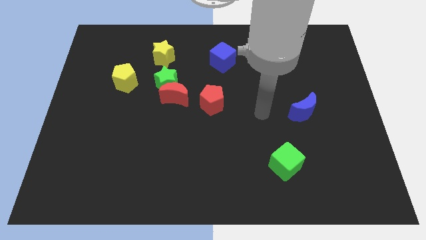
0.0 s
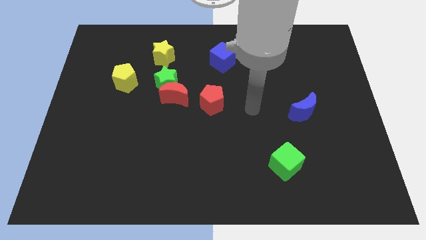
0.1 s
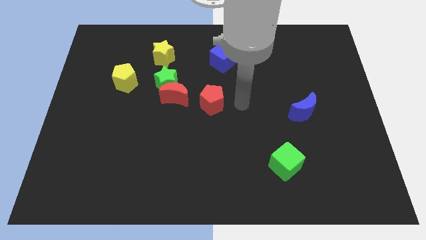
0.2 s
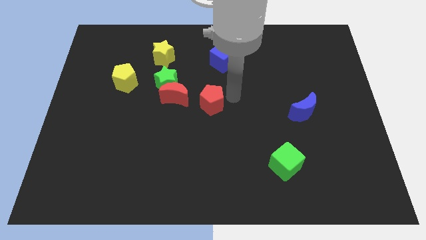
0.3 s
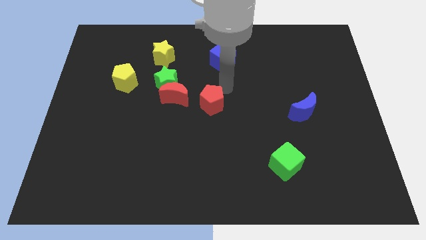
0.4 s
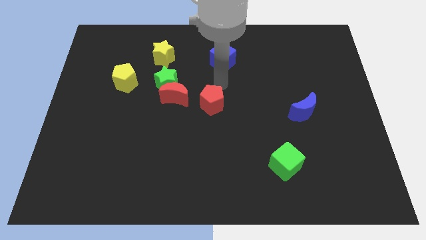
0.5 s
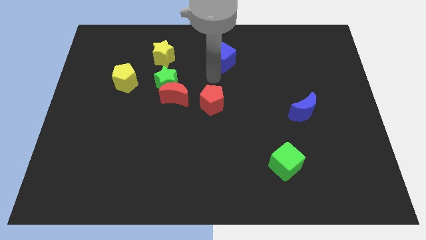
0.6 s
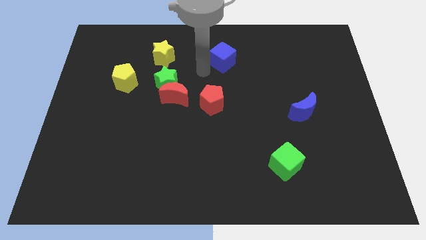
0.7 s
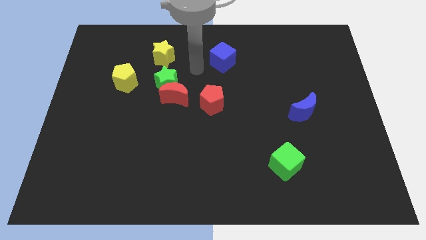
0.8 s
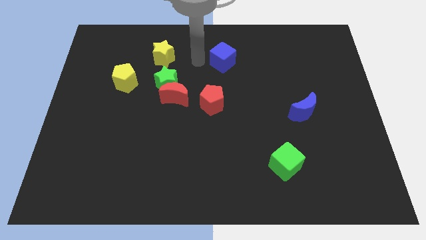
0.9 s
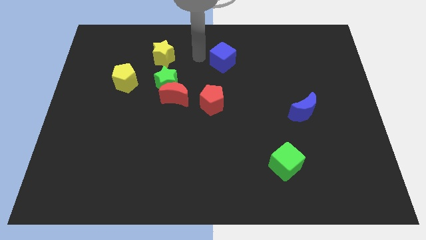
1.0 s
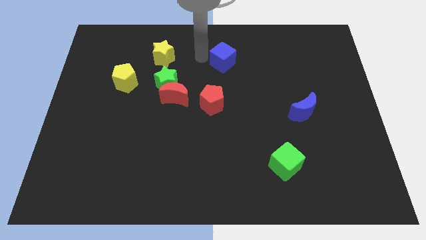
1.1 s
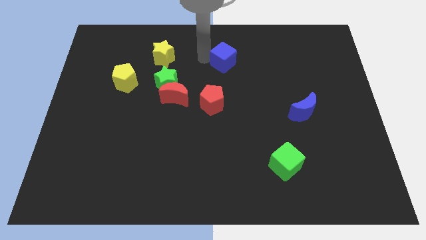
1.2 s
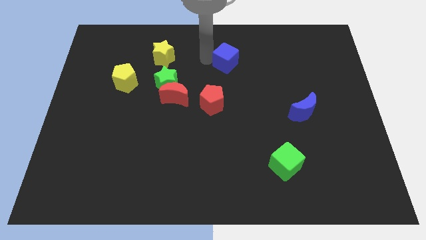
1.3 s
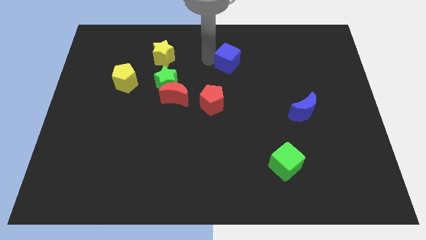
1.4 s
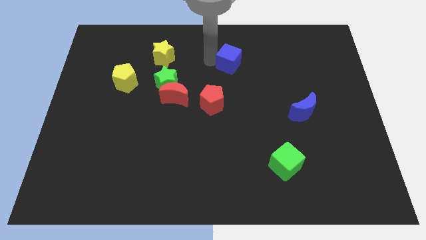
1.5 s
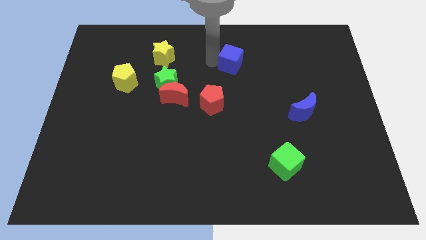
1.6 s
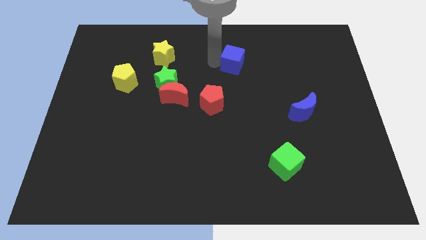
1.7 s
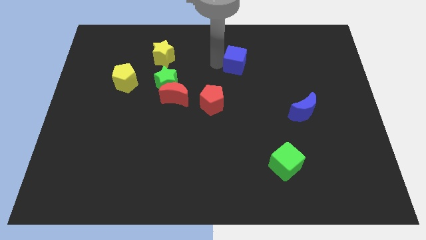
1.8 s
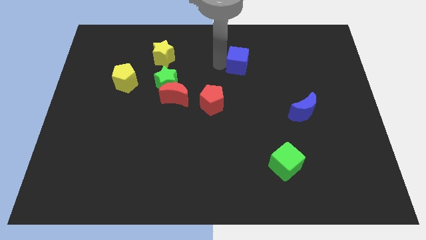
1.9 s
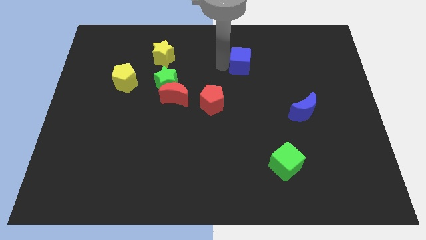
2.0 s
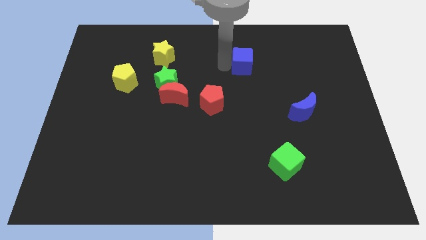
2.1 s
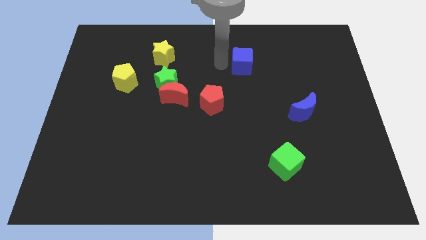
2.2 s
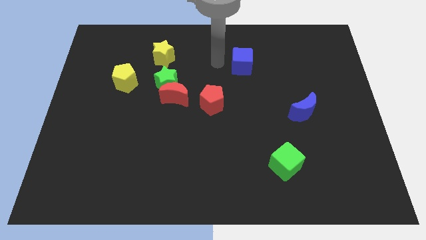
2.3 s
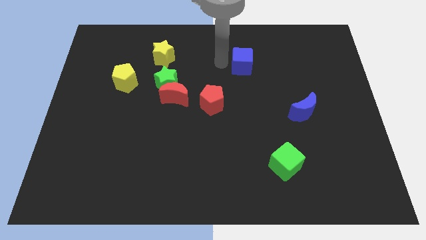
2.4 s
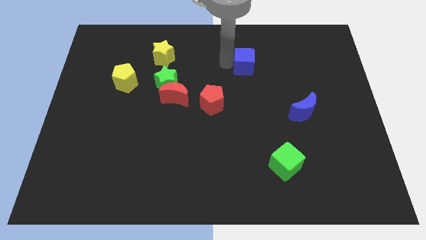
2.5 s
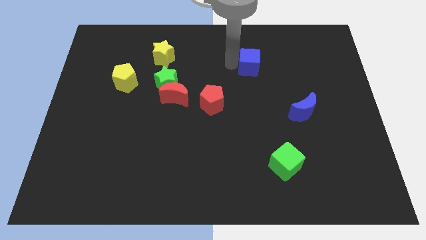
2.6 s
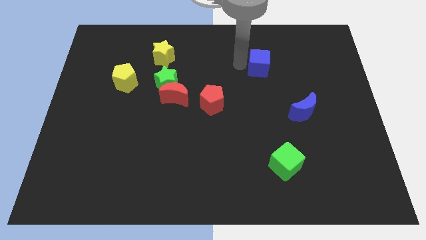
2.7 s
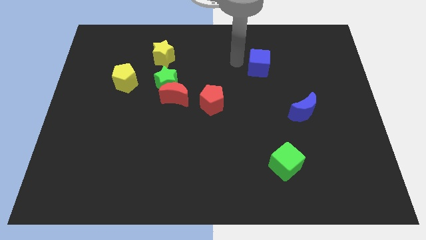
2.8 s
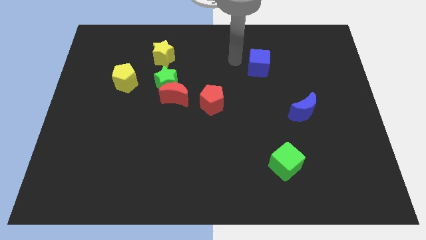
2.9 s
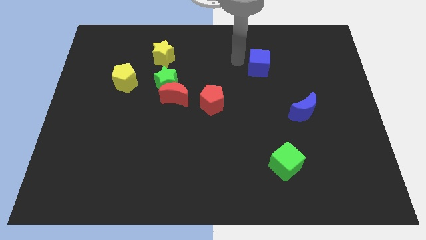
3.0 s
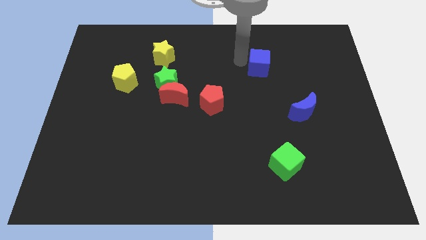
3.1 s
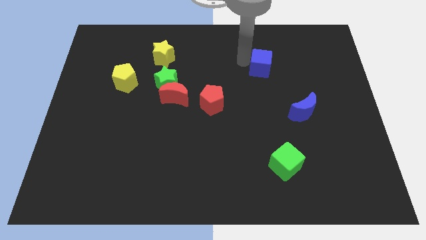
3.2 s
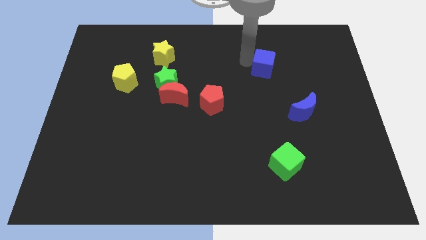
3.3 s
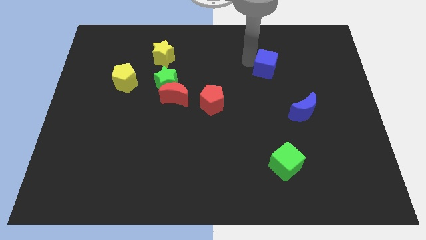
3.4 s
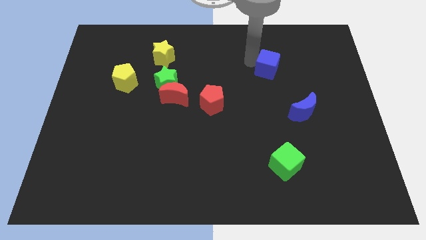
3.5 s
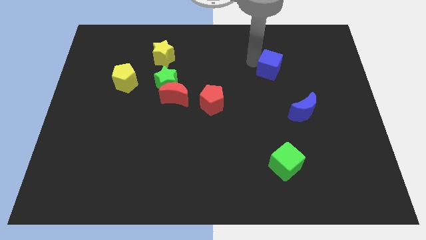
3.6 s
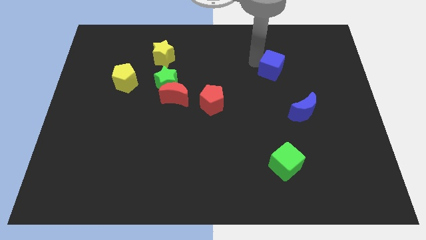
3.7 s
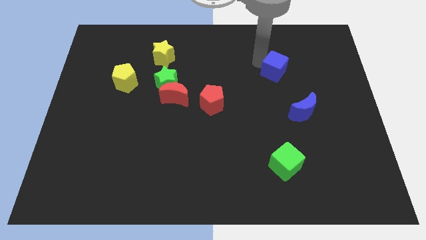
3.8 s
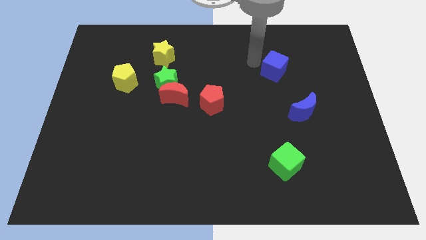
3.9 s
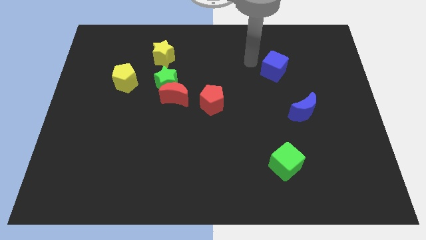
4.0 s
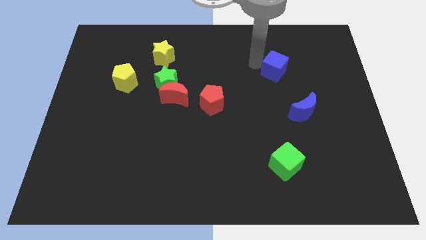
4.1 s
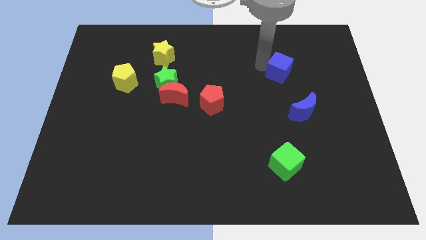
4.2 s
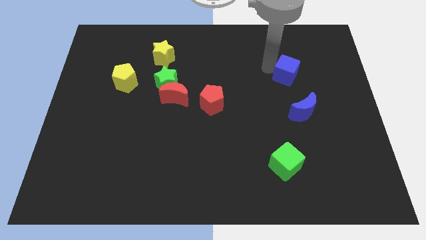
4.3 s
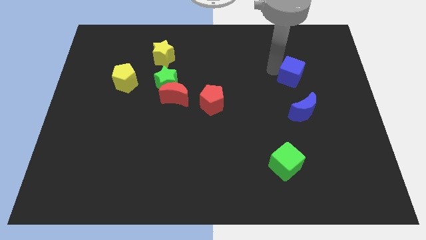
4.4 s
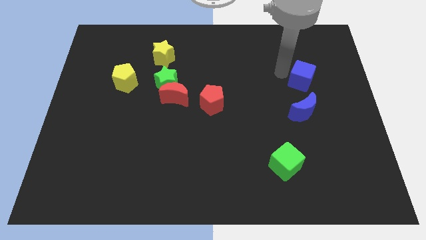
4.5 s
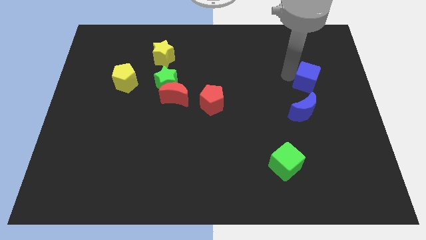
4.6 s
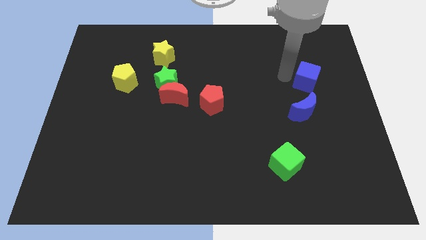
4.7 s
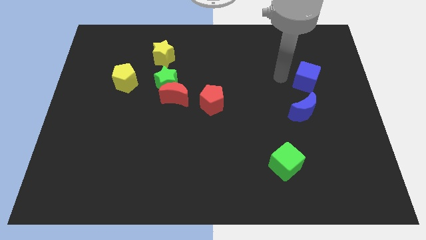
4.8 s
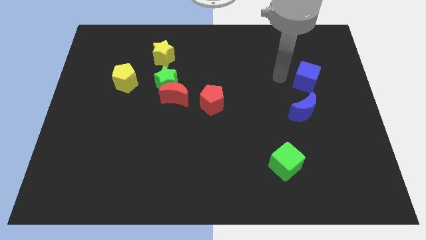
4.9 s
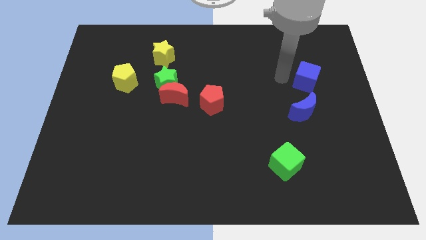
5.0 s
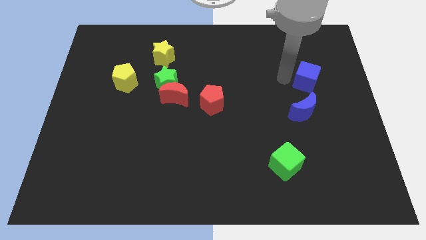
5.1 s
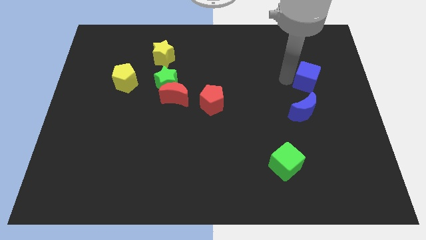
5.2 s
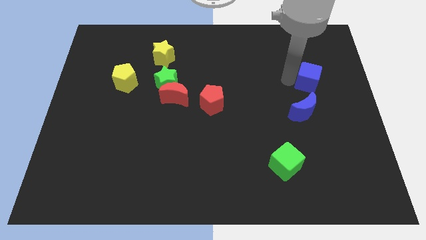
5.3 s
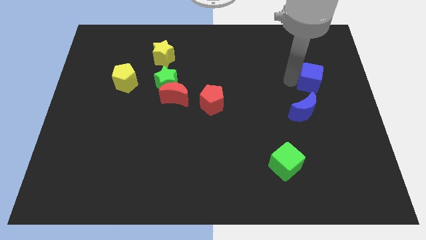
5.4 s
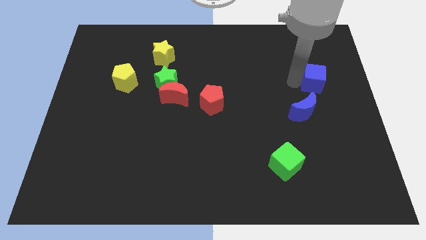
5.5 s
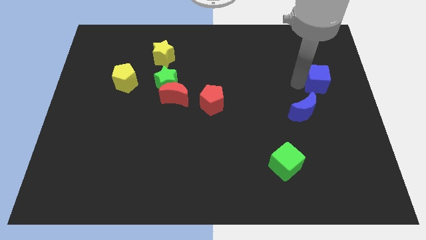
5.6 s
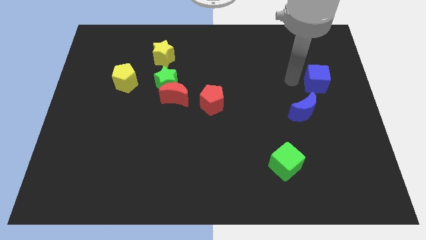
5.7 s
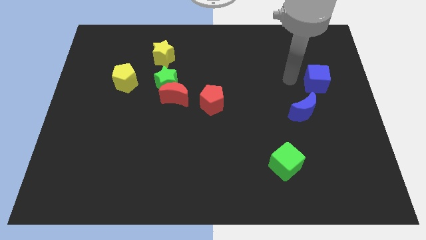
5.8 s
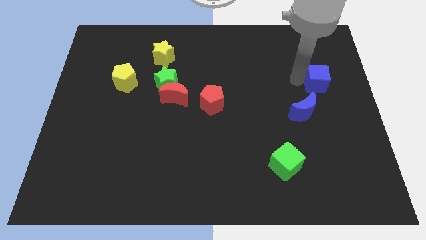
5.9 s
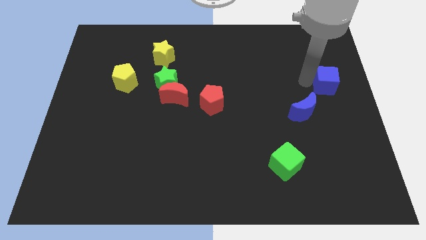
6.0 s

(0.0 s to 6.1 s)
put the blue cube to the center right
